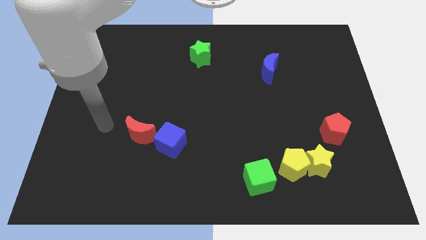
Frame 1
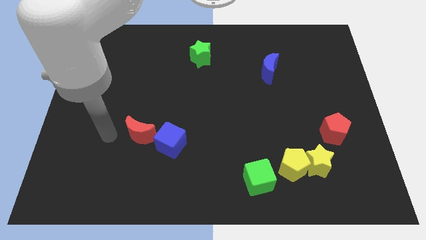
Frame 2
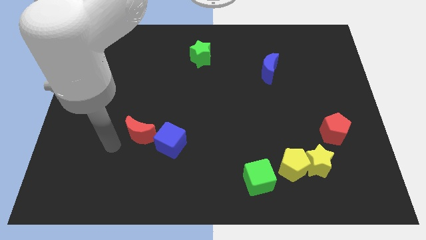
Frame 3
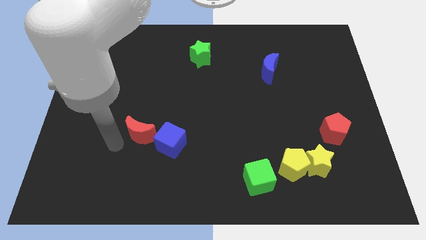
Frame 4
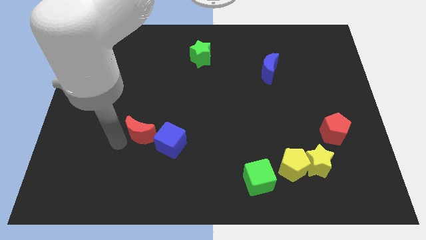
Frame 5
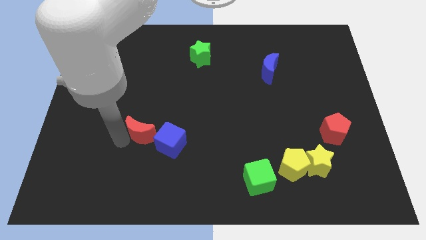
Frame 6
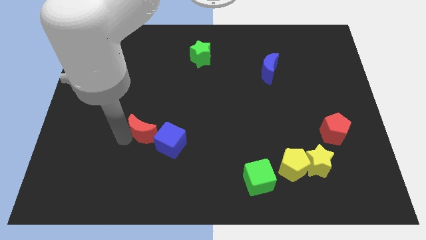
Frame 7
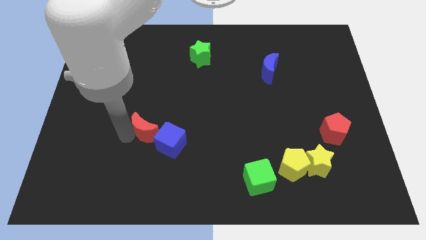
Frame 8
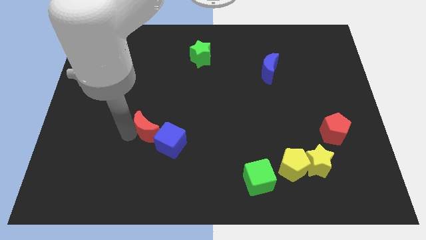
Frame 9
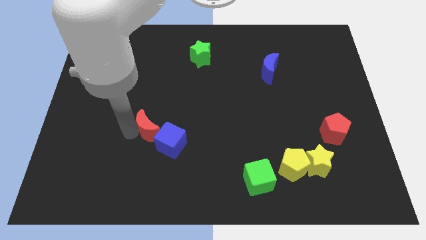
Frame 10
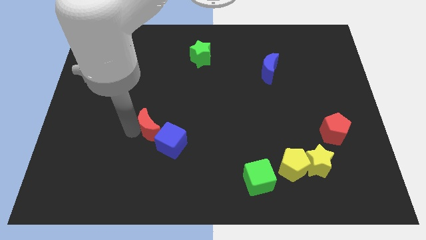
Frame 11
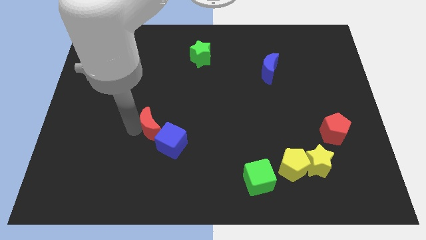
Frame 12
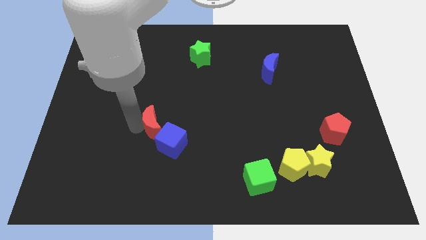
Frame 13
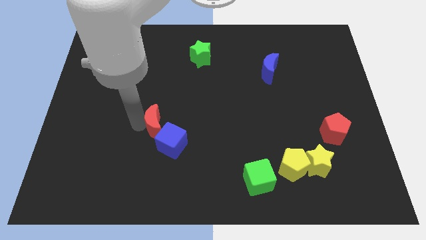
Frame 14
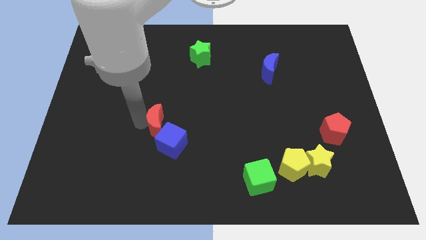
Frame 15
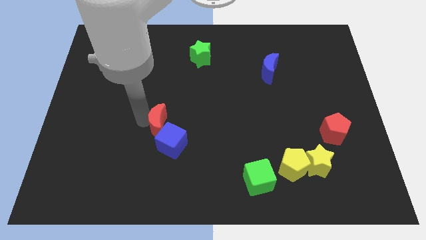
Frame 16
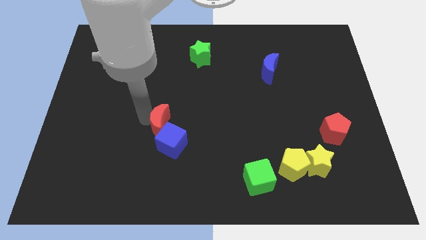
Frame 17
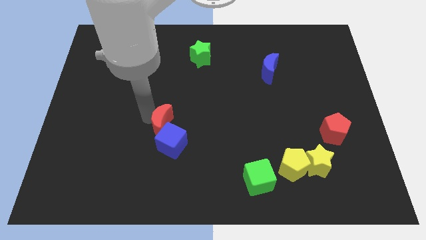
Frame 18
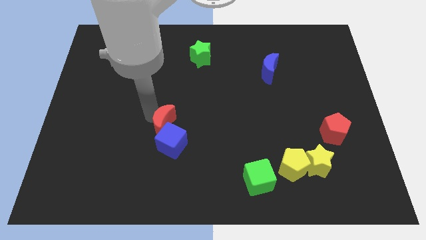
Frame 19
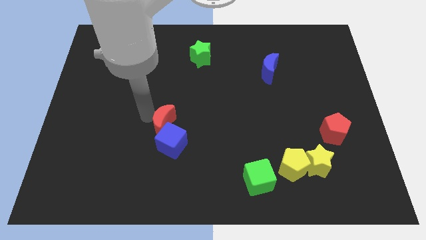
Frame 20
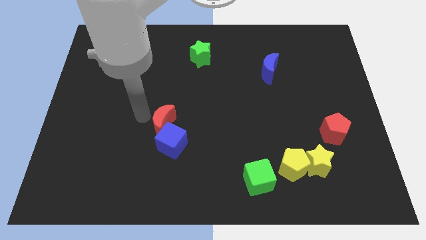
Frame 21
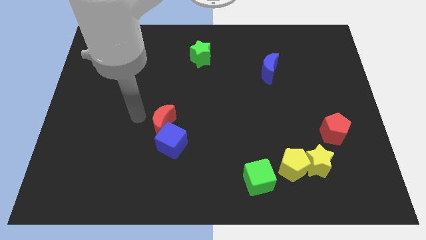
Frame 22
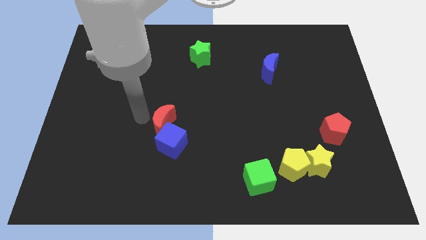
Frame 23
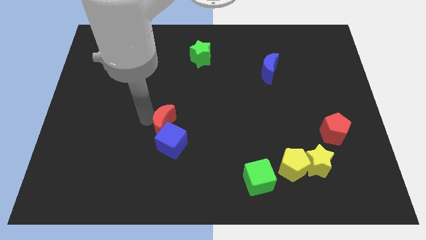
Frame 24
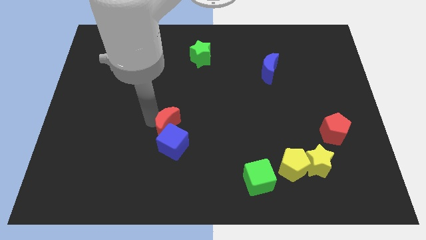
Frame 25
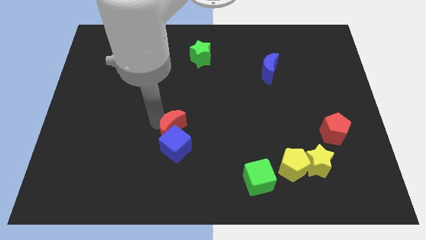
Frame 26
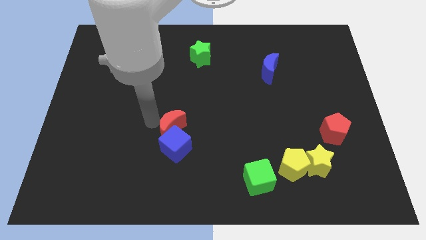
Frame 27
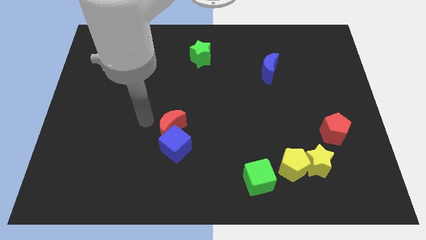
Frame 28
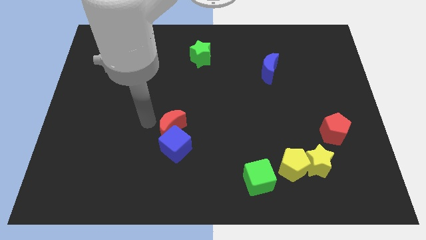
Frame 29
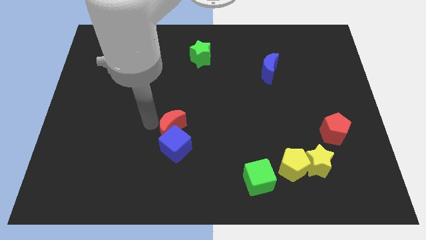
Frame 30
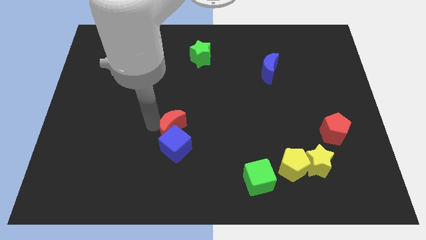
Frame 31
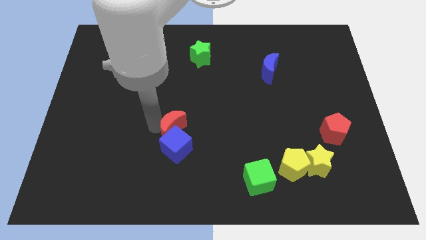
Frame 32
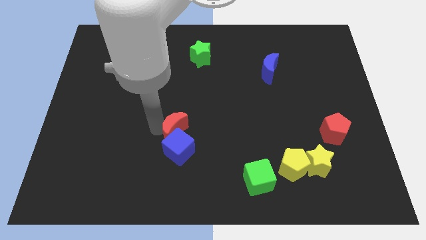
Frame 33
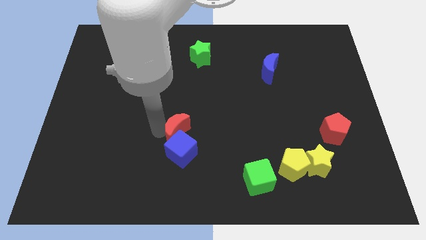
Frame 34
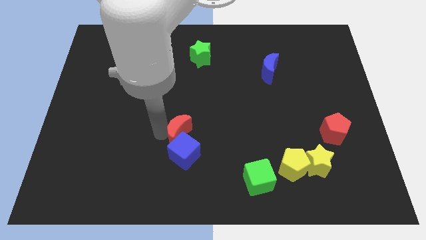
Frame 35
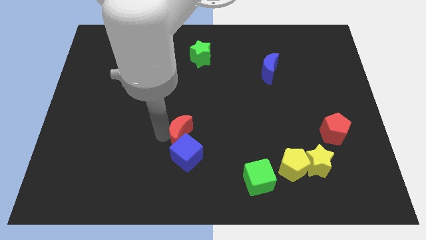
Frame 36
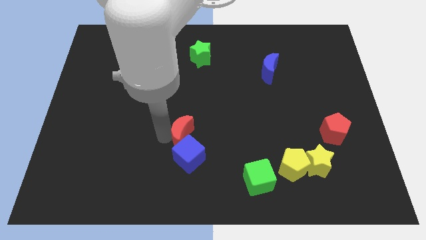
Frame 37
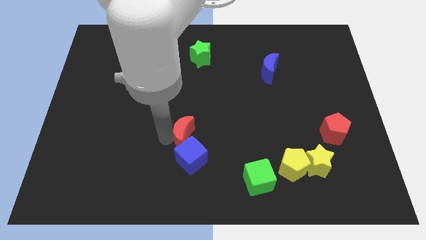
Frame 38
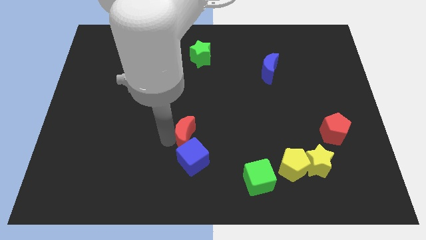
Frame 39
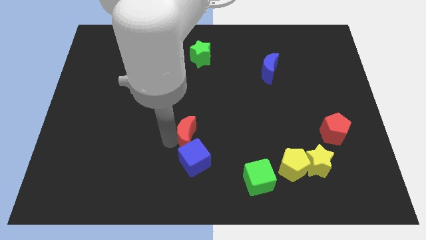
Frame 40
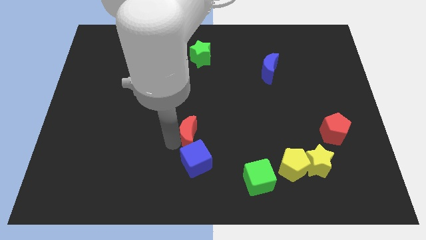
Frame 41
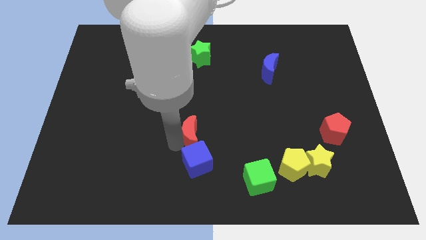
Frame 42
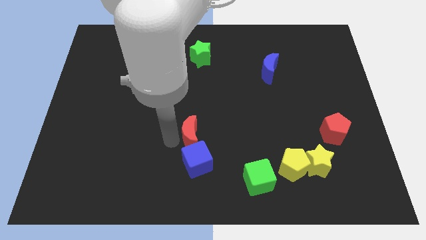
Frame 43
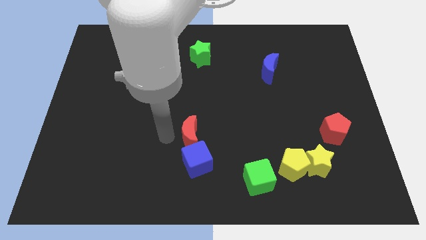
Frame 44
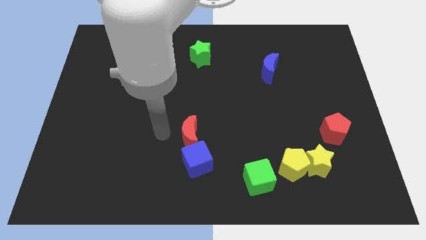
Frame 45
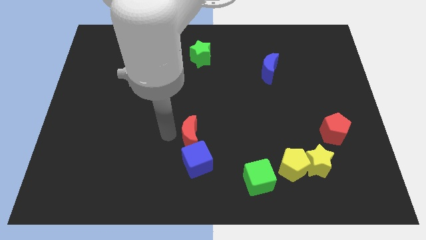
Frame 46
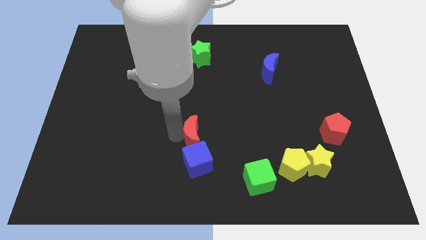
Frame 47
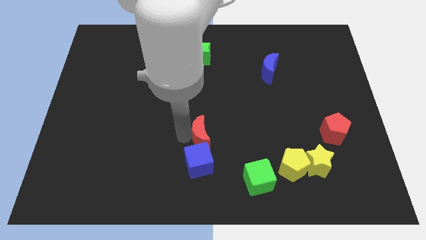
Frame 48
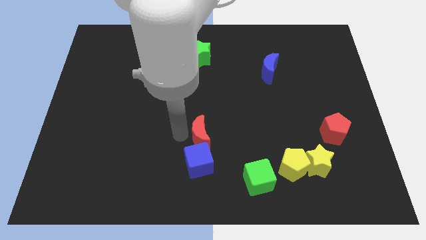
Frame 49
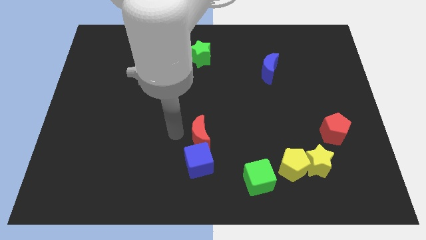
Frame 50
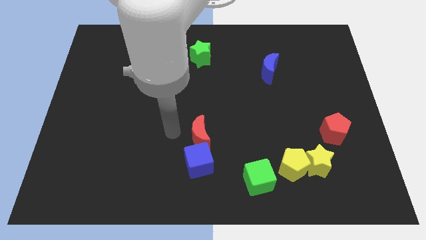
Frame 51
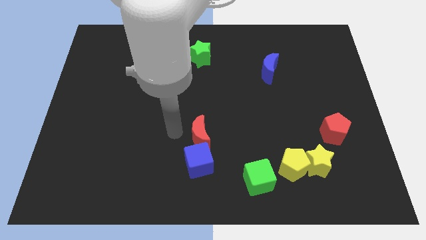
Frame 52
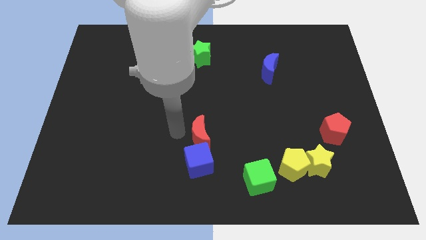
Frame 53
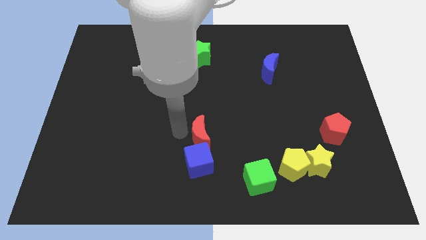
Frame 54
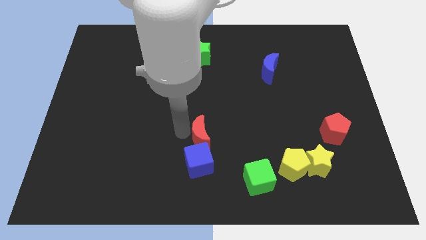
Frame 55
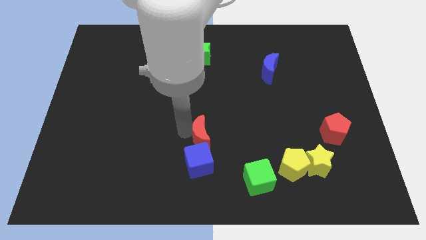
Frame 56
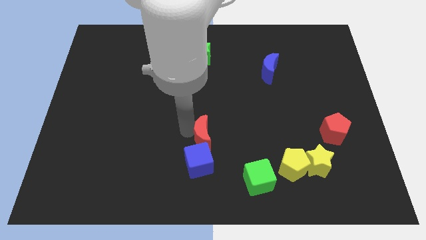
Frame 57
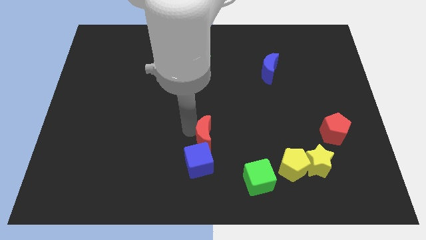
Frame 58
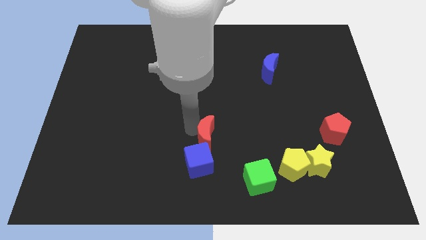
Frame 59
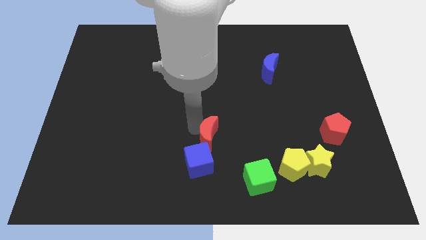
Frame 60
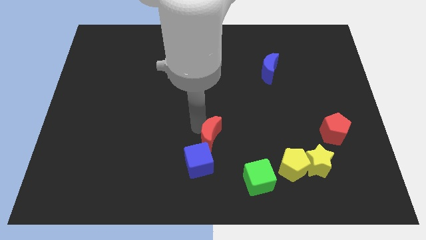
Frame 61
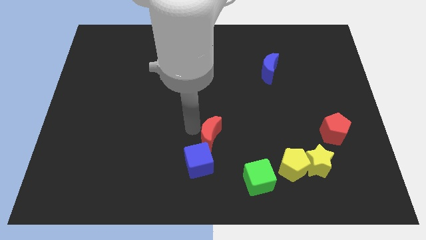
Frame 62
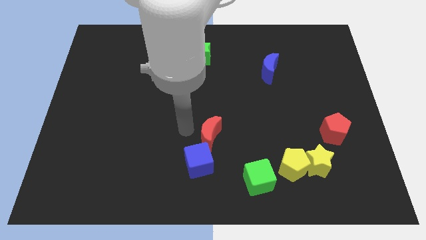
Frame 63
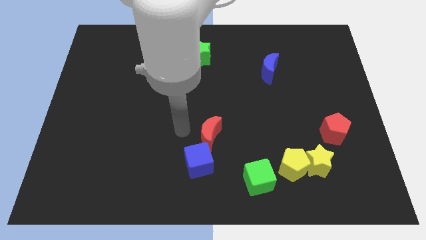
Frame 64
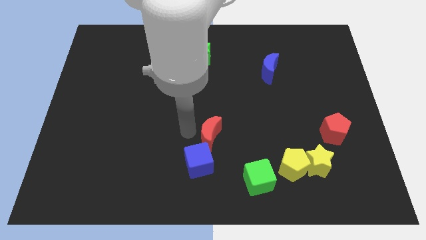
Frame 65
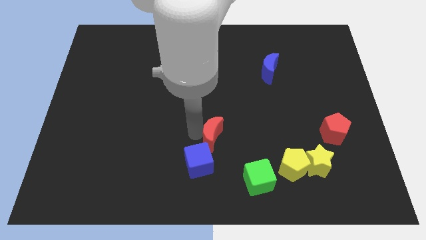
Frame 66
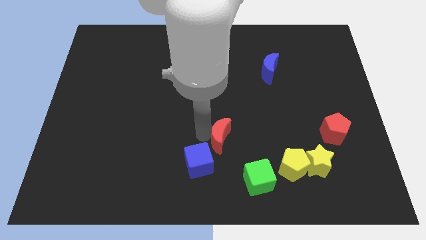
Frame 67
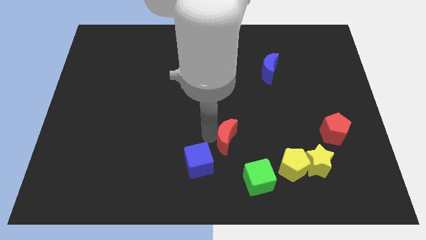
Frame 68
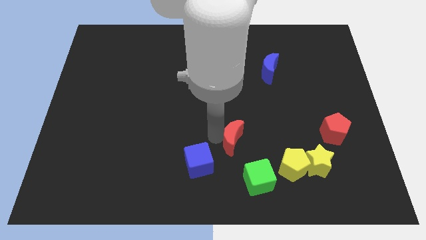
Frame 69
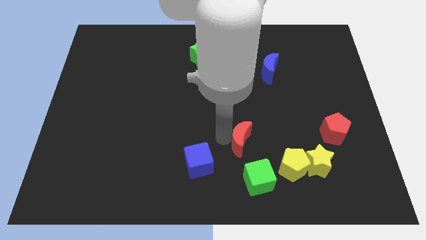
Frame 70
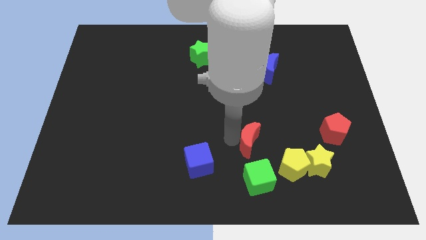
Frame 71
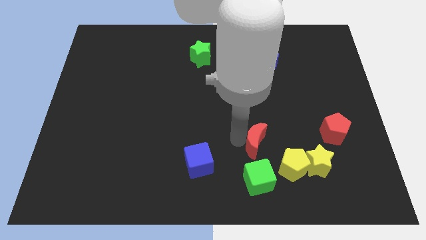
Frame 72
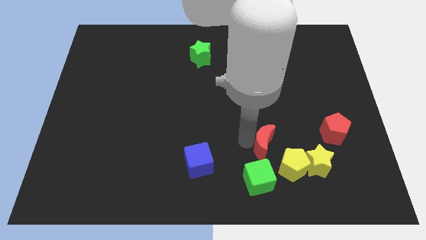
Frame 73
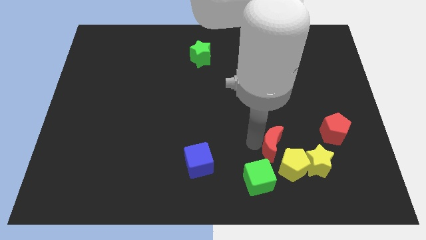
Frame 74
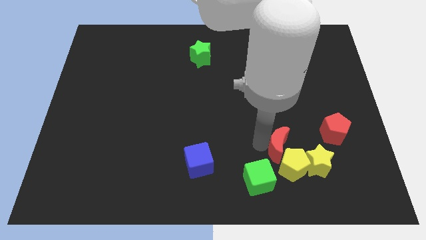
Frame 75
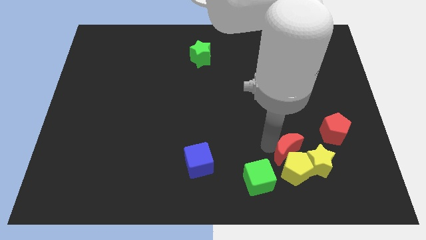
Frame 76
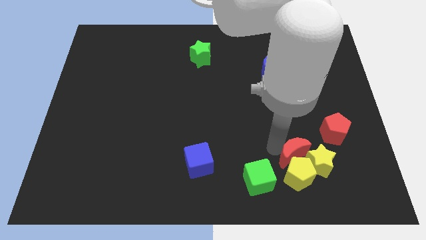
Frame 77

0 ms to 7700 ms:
push the red moon towards the yellow star
